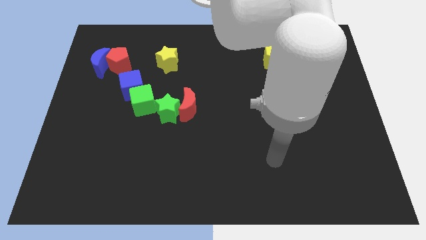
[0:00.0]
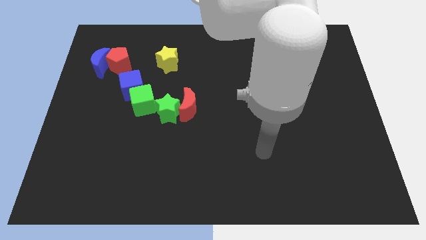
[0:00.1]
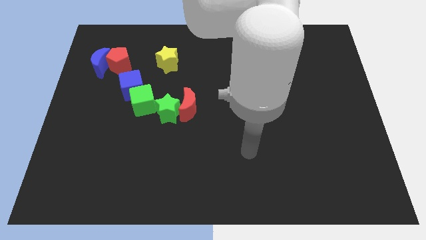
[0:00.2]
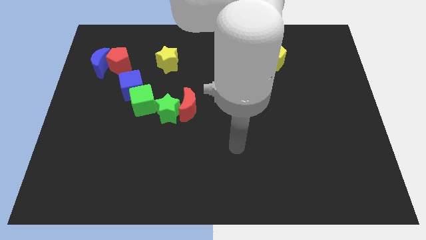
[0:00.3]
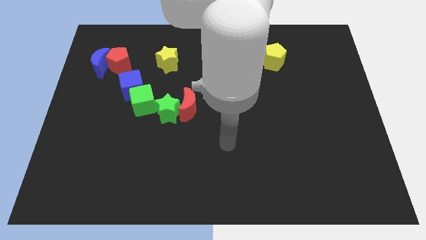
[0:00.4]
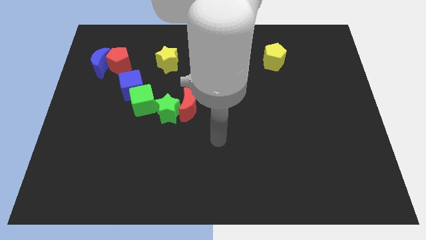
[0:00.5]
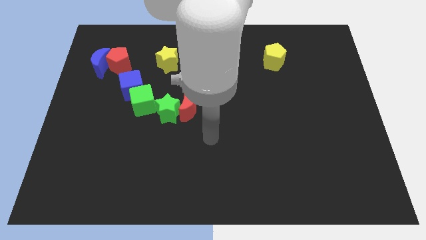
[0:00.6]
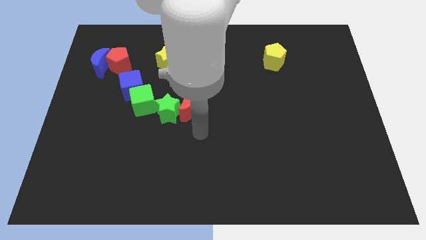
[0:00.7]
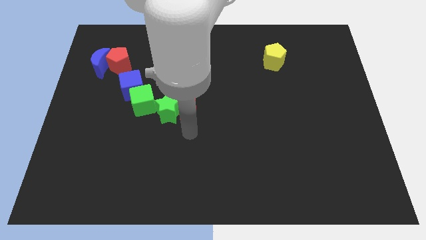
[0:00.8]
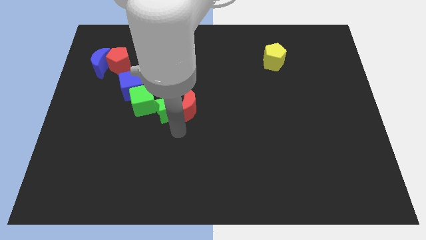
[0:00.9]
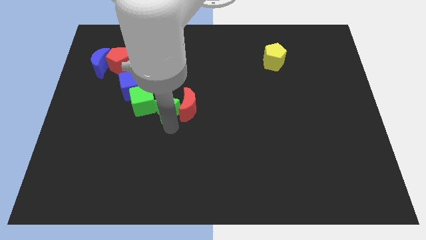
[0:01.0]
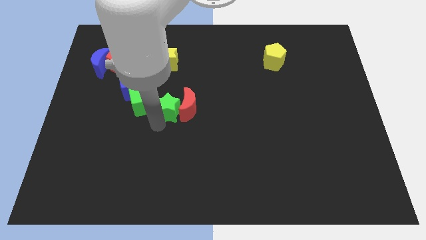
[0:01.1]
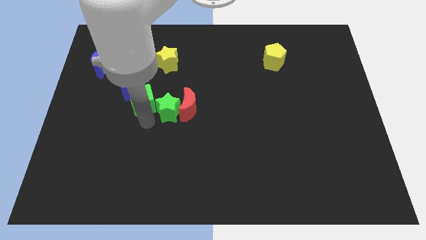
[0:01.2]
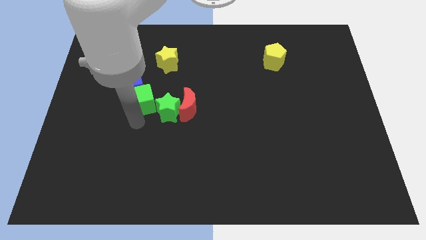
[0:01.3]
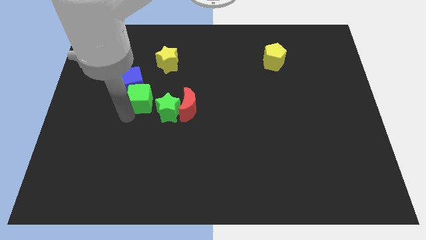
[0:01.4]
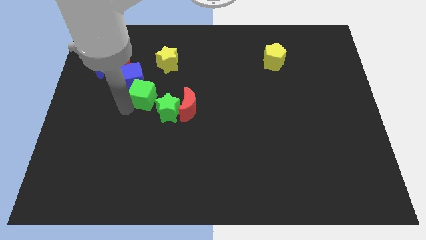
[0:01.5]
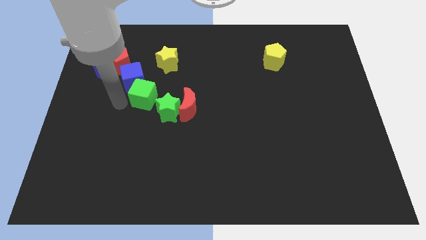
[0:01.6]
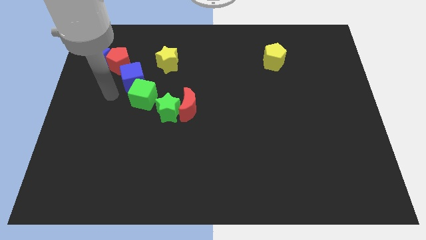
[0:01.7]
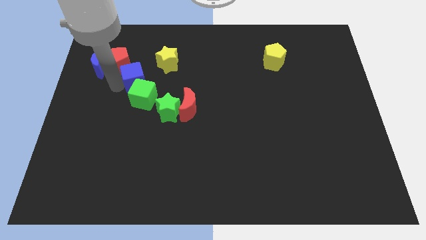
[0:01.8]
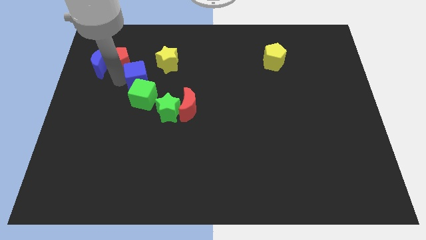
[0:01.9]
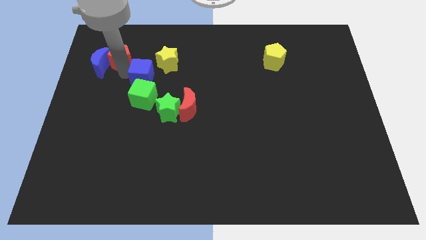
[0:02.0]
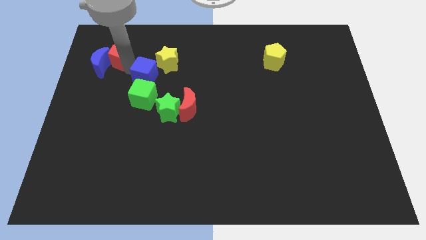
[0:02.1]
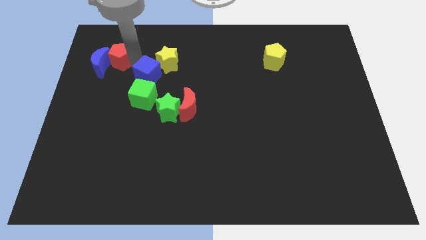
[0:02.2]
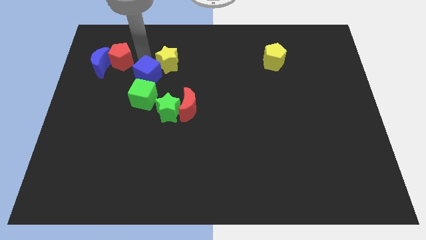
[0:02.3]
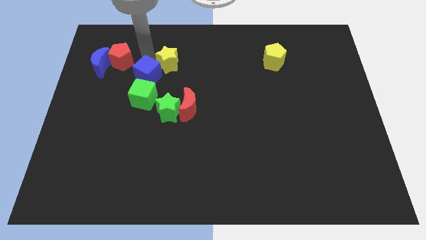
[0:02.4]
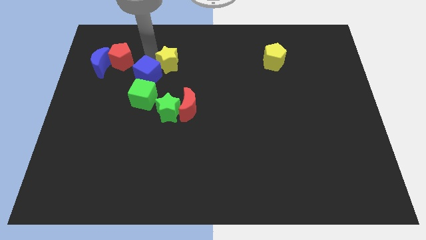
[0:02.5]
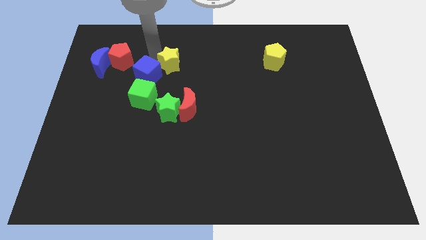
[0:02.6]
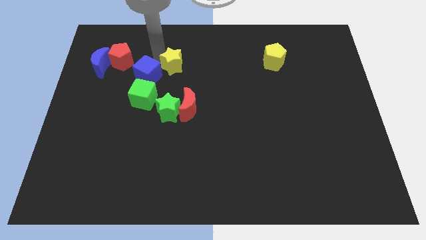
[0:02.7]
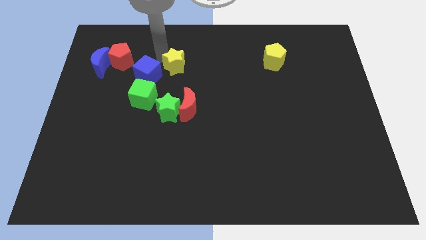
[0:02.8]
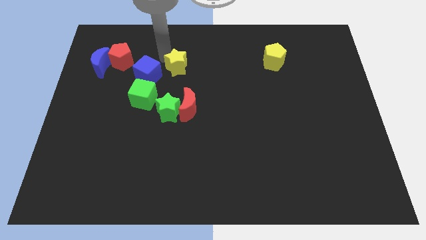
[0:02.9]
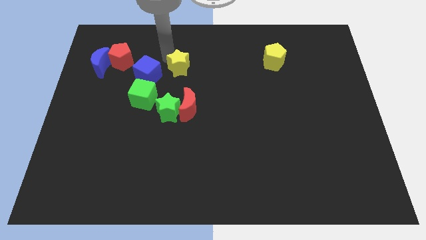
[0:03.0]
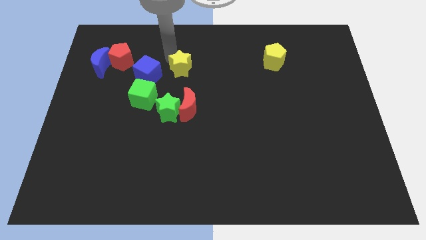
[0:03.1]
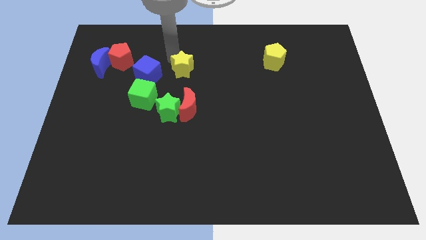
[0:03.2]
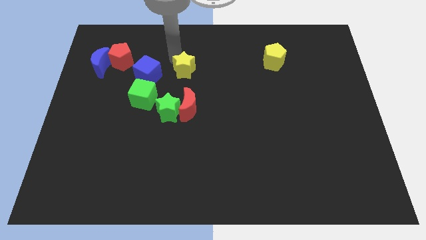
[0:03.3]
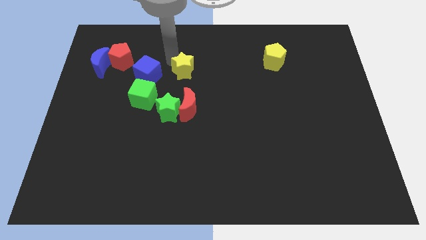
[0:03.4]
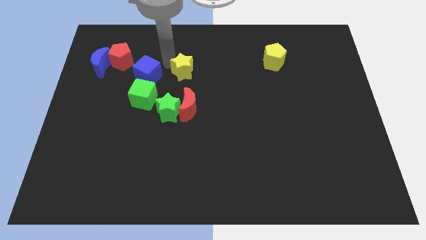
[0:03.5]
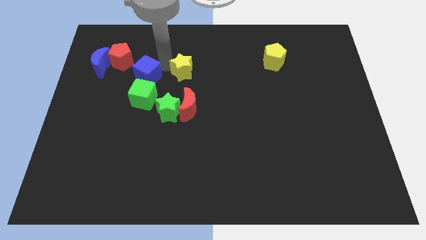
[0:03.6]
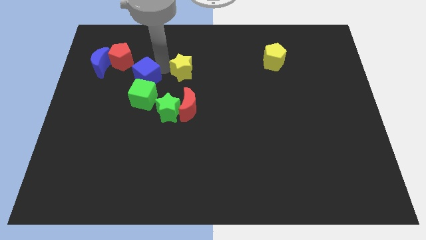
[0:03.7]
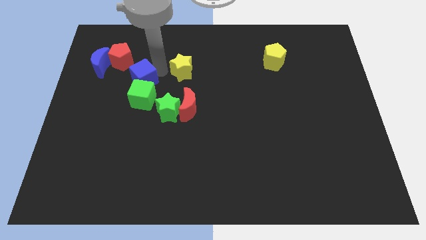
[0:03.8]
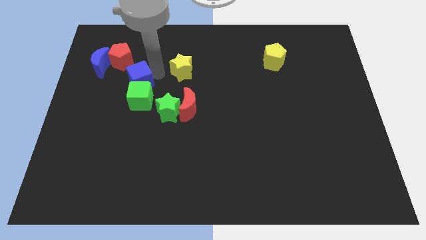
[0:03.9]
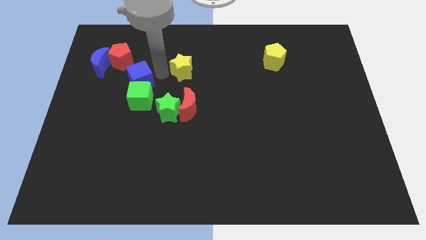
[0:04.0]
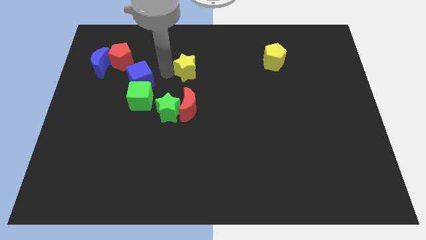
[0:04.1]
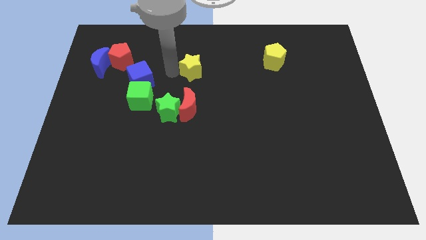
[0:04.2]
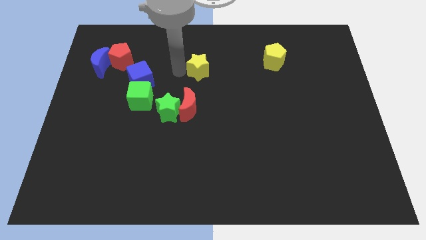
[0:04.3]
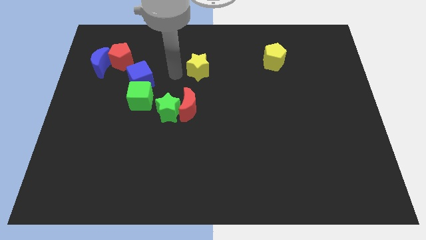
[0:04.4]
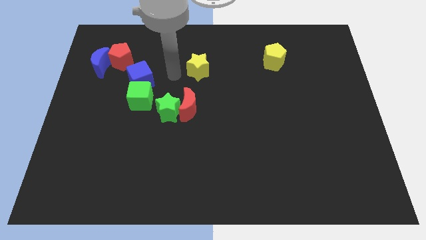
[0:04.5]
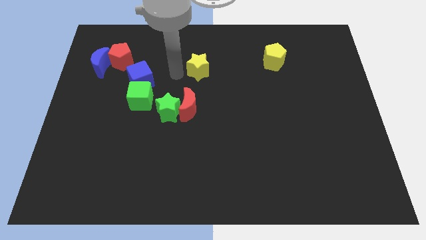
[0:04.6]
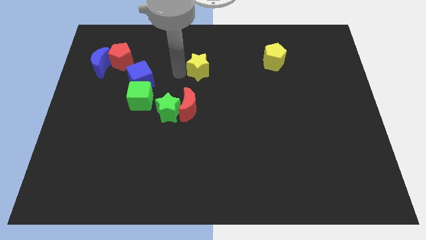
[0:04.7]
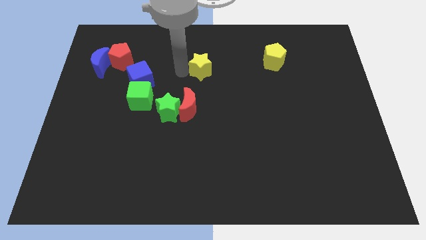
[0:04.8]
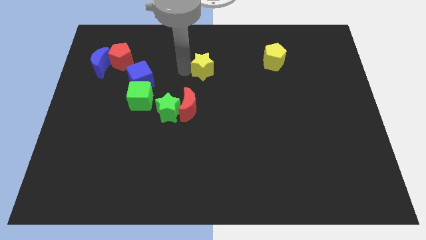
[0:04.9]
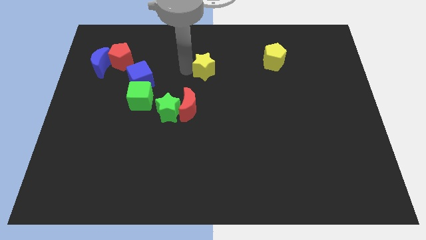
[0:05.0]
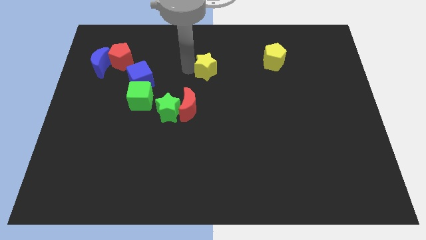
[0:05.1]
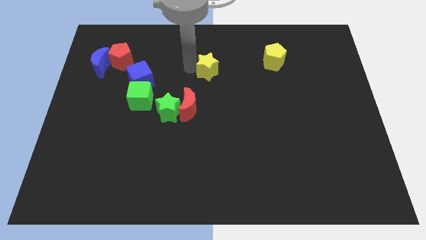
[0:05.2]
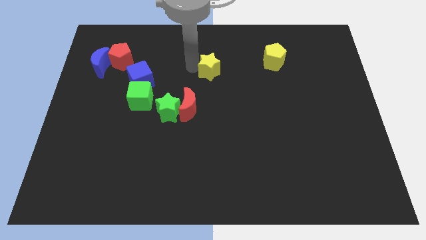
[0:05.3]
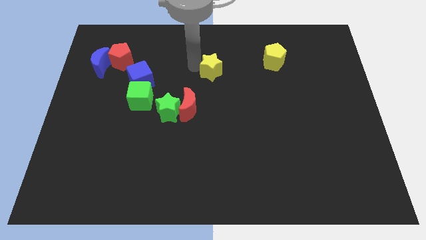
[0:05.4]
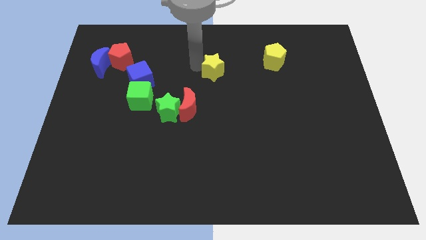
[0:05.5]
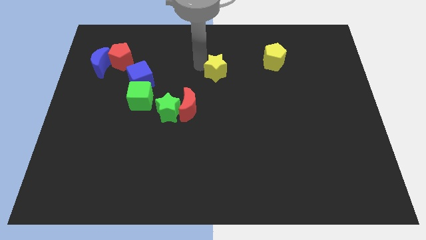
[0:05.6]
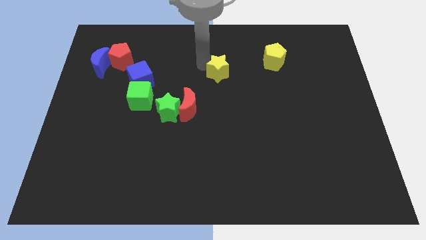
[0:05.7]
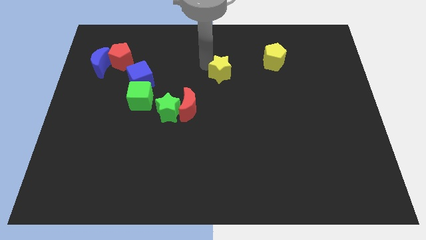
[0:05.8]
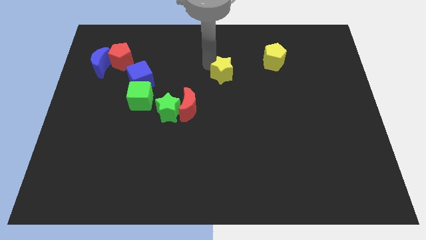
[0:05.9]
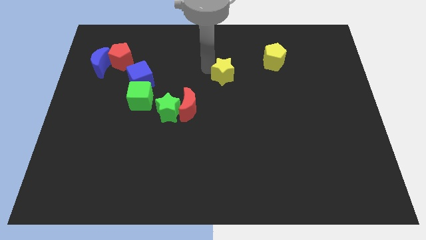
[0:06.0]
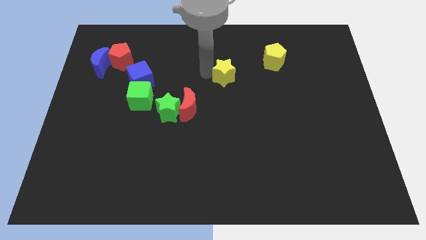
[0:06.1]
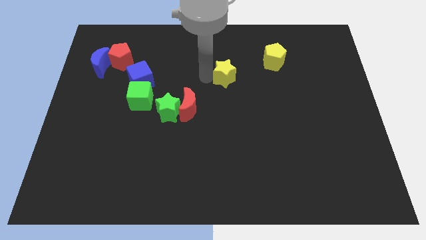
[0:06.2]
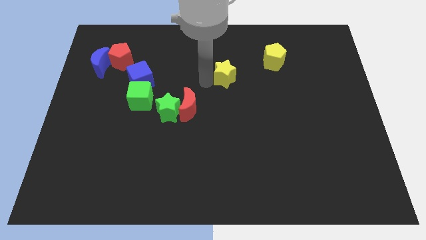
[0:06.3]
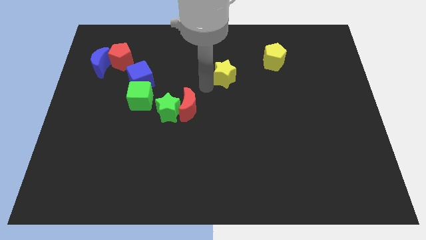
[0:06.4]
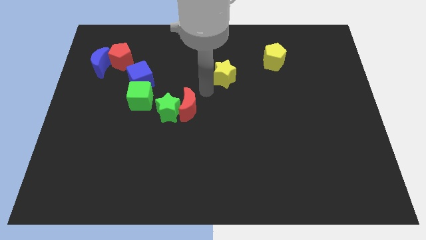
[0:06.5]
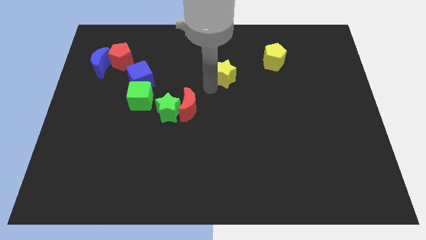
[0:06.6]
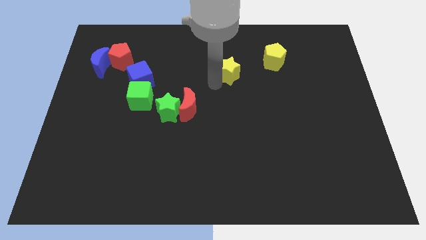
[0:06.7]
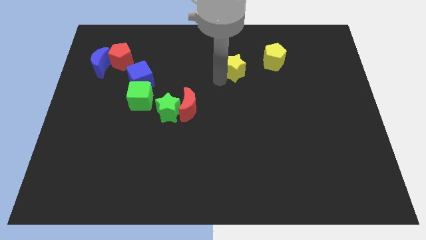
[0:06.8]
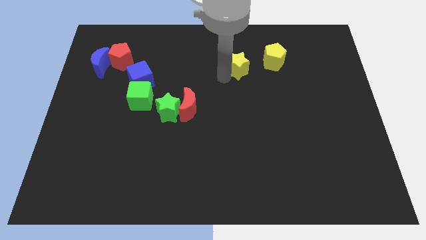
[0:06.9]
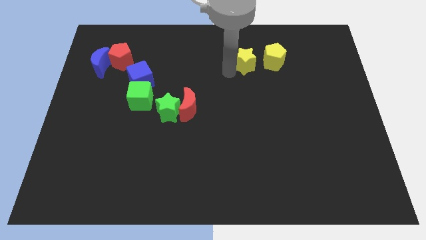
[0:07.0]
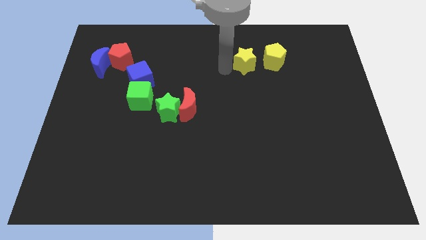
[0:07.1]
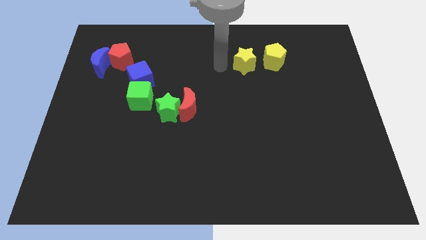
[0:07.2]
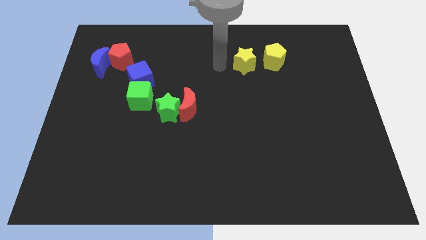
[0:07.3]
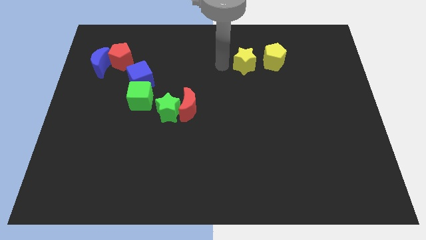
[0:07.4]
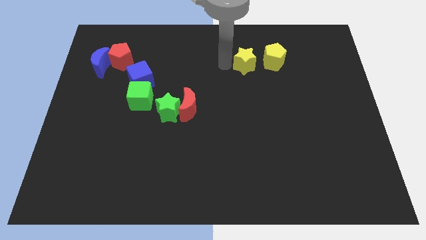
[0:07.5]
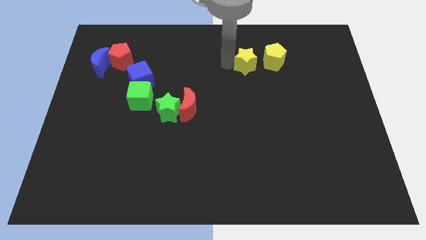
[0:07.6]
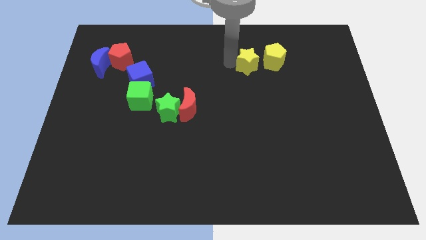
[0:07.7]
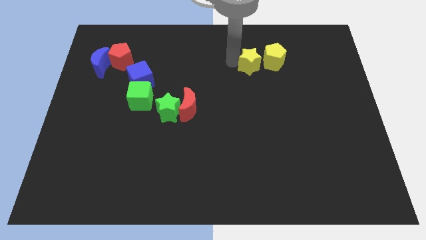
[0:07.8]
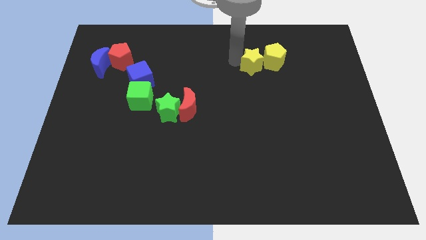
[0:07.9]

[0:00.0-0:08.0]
slide the yellow star next to the yellow pentagon
